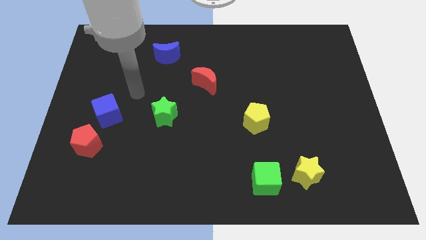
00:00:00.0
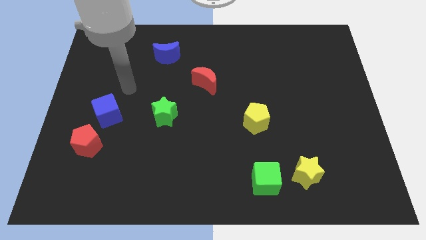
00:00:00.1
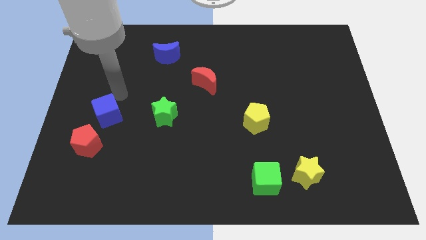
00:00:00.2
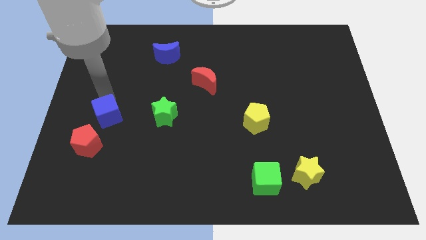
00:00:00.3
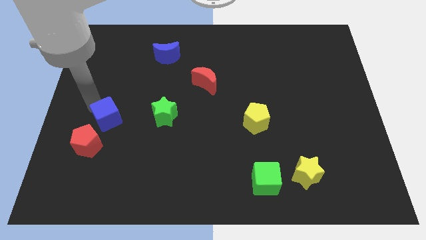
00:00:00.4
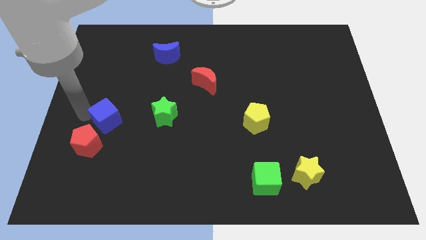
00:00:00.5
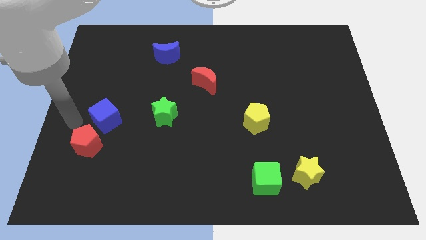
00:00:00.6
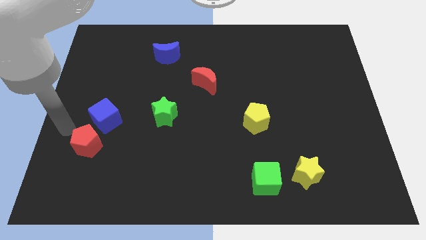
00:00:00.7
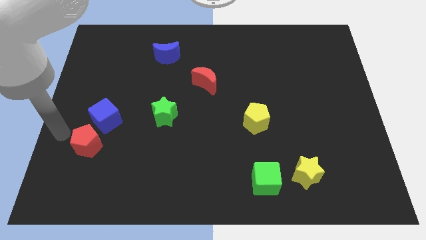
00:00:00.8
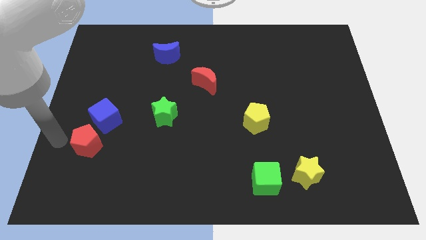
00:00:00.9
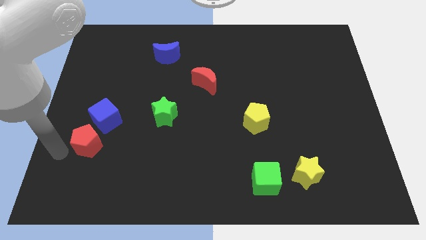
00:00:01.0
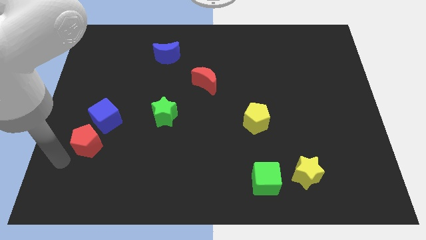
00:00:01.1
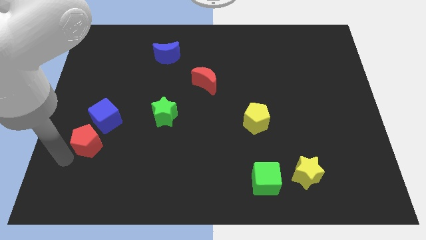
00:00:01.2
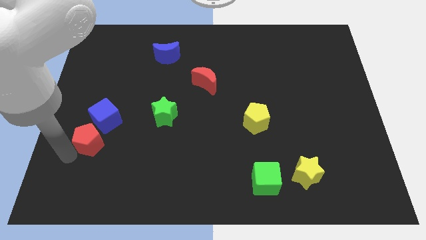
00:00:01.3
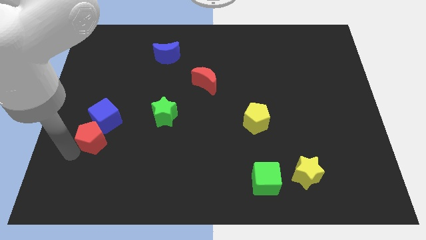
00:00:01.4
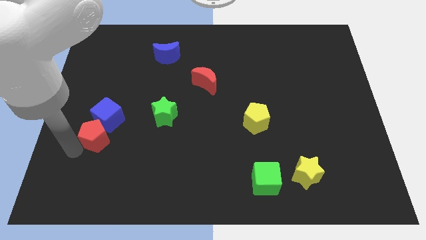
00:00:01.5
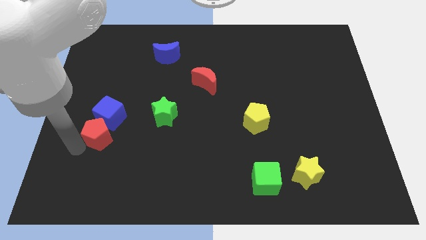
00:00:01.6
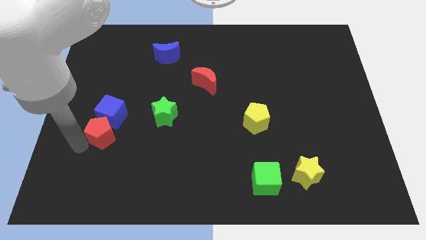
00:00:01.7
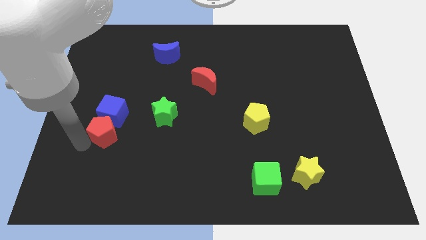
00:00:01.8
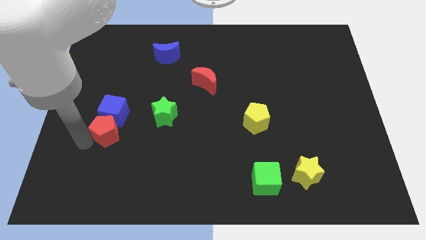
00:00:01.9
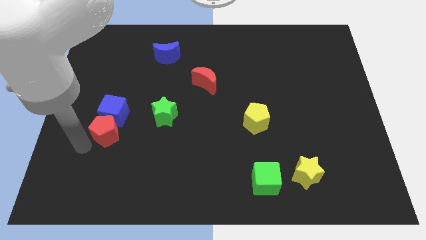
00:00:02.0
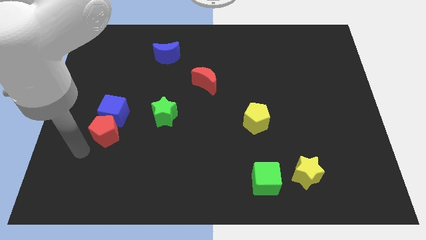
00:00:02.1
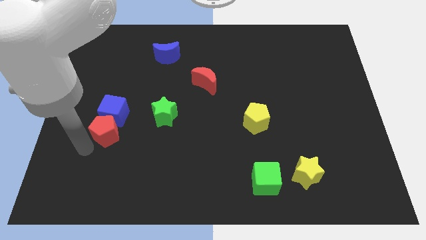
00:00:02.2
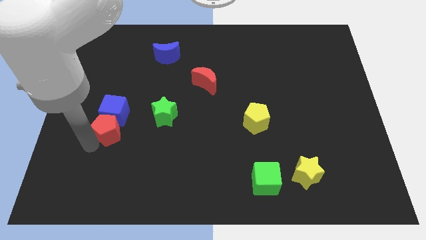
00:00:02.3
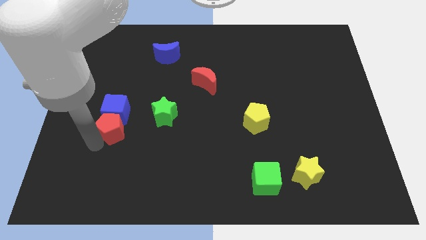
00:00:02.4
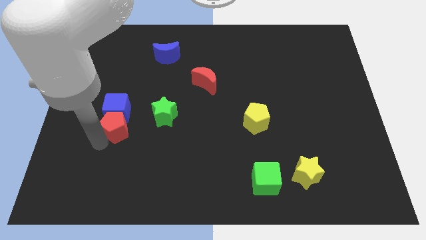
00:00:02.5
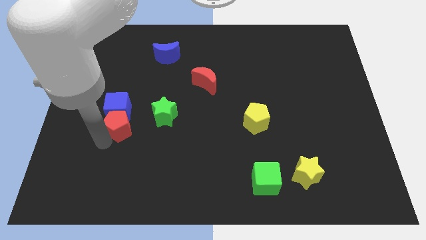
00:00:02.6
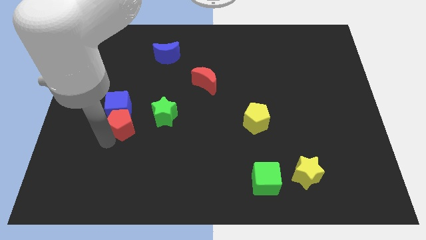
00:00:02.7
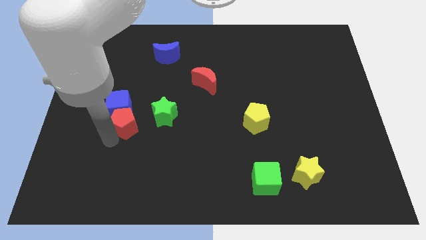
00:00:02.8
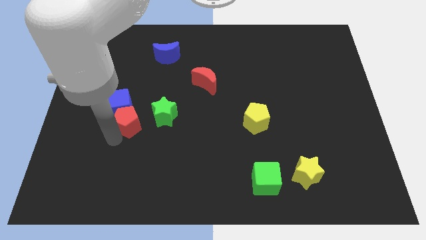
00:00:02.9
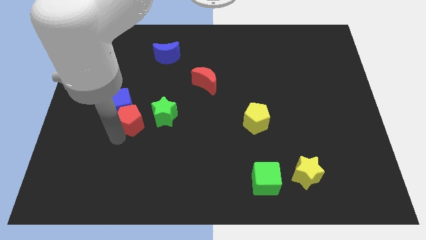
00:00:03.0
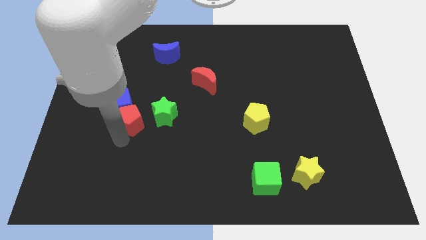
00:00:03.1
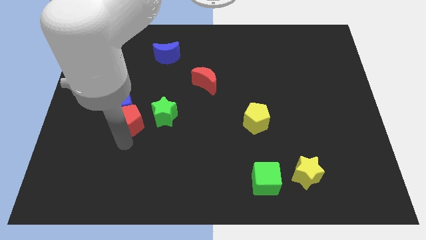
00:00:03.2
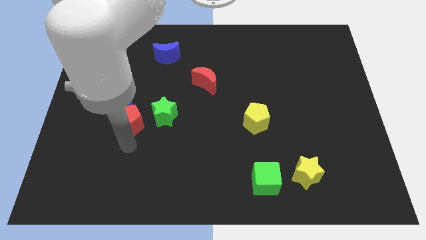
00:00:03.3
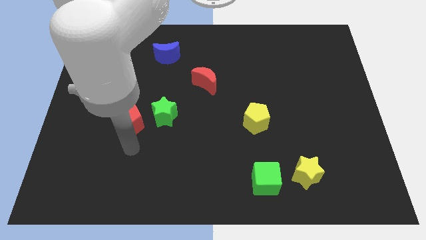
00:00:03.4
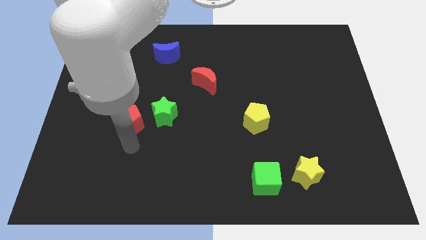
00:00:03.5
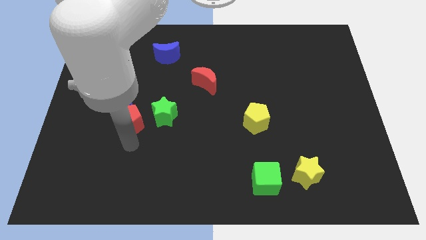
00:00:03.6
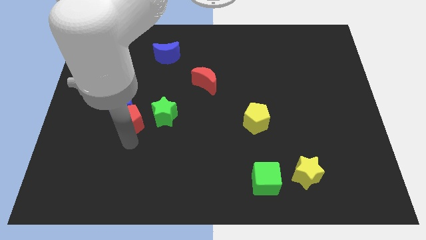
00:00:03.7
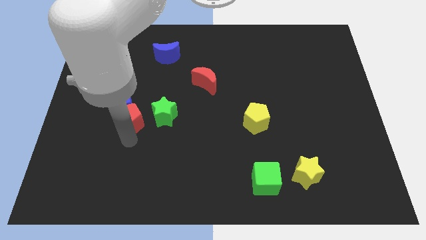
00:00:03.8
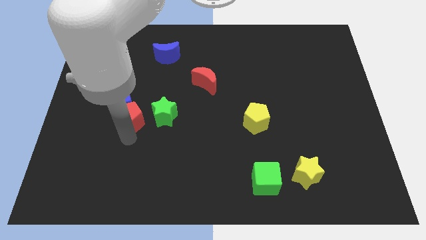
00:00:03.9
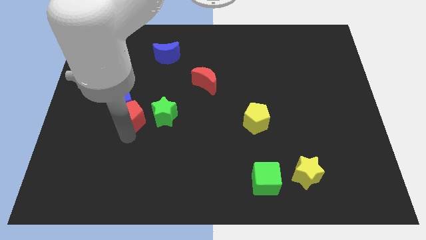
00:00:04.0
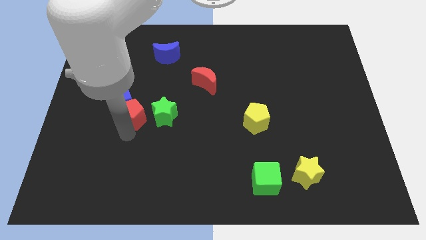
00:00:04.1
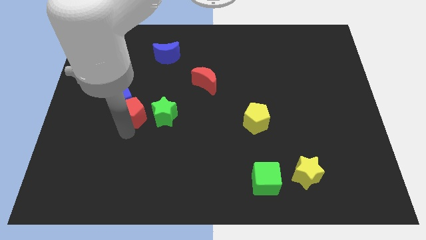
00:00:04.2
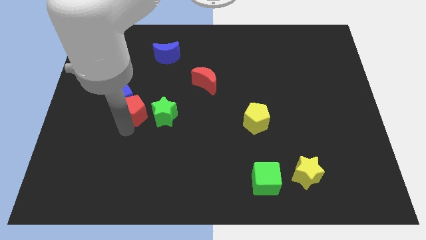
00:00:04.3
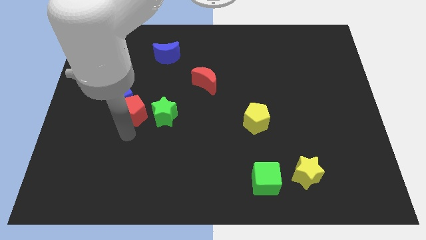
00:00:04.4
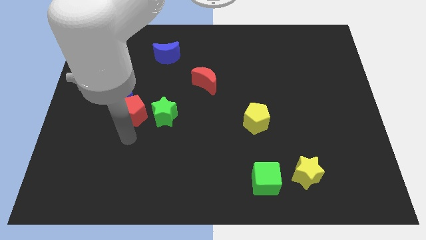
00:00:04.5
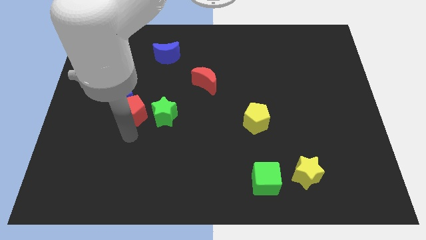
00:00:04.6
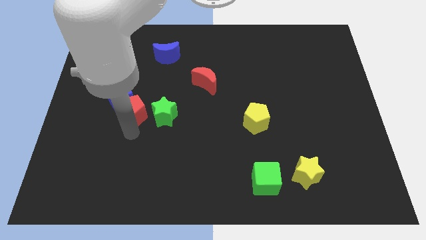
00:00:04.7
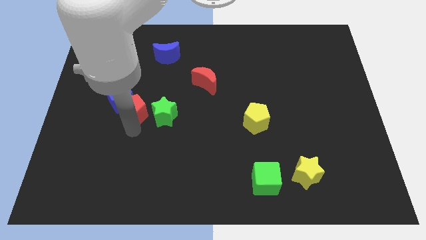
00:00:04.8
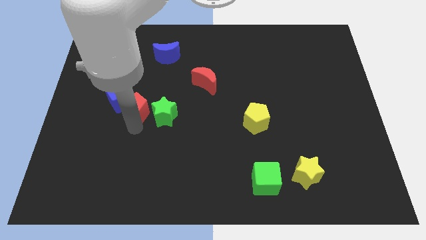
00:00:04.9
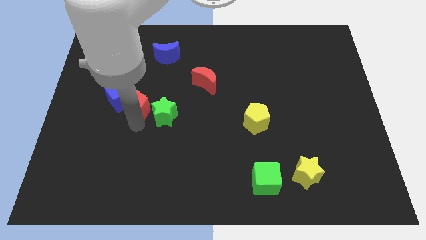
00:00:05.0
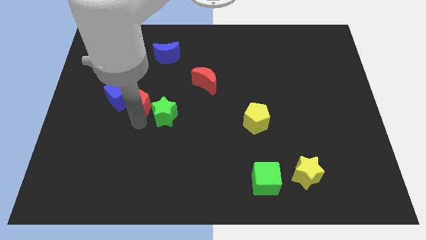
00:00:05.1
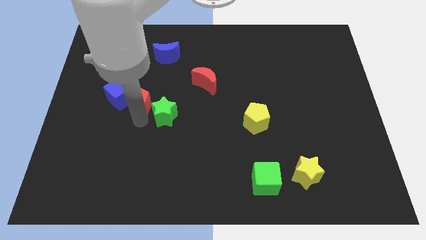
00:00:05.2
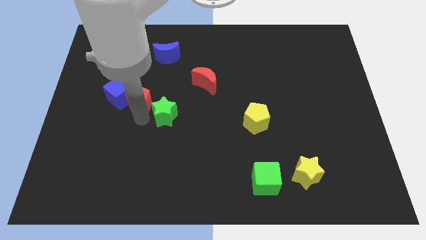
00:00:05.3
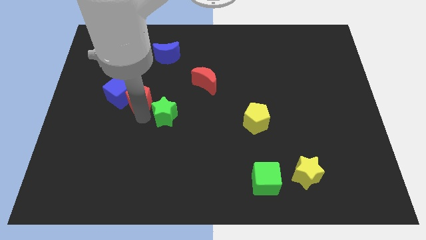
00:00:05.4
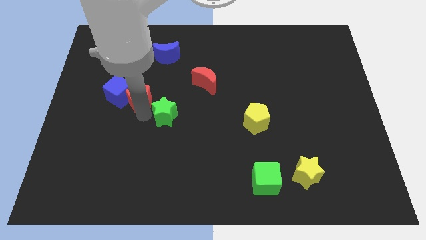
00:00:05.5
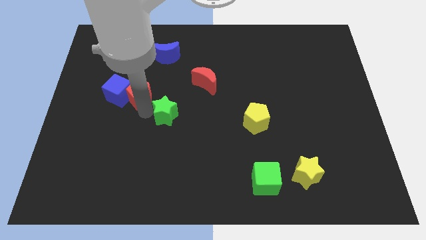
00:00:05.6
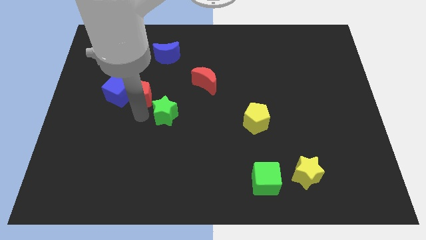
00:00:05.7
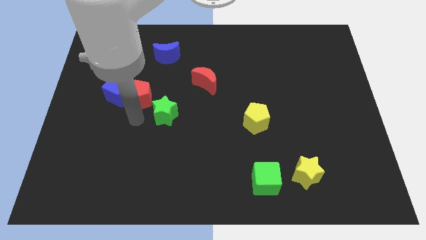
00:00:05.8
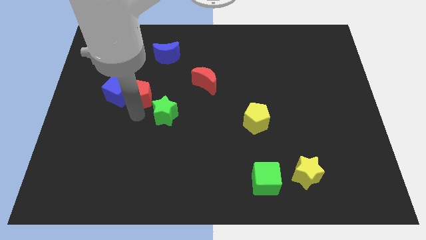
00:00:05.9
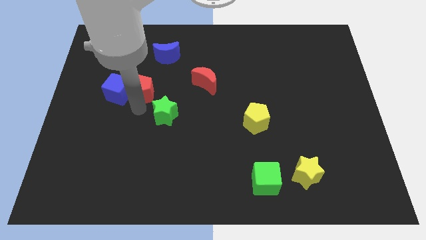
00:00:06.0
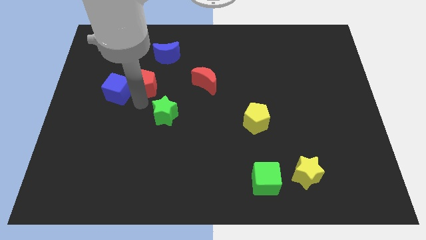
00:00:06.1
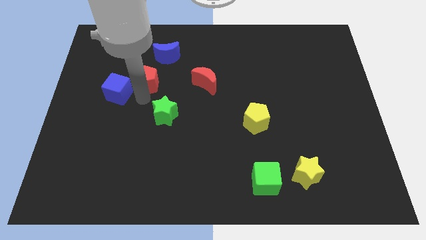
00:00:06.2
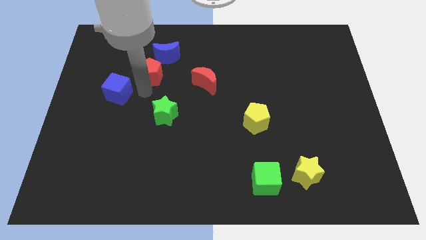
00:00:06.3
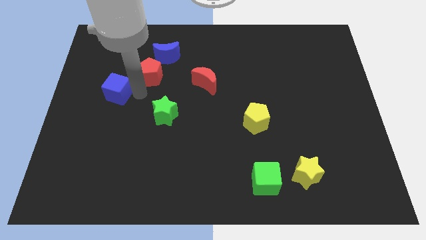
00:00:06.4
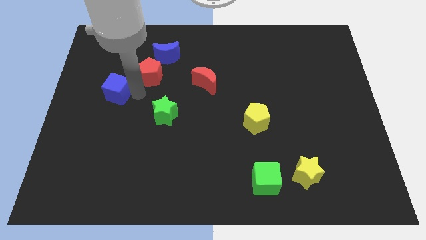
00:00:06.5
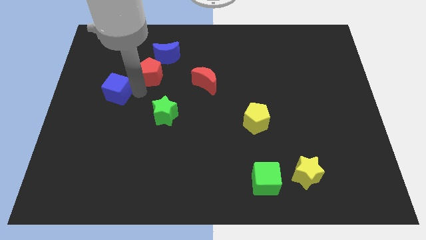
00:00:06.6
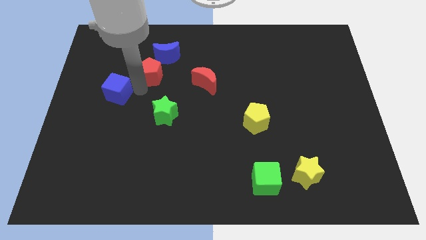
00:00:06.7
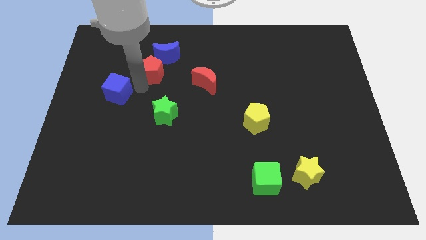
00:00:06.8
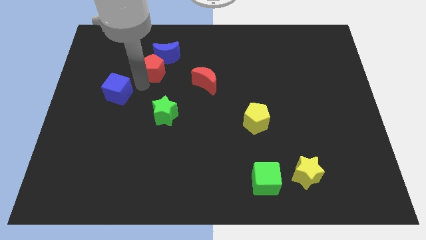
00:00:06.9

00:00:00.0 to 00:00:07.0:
move the red pentagon close to the blue moon
